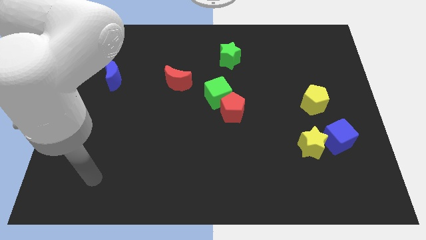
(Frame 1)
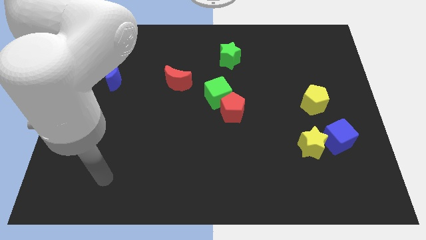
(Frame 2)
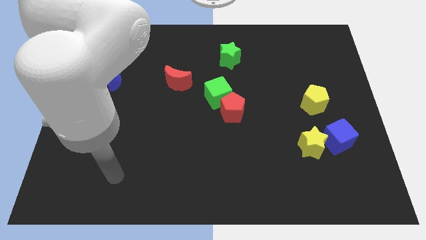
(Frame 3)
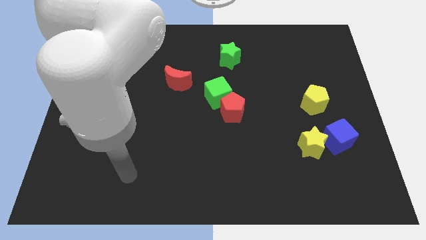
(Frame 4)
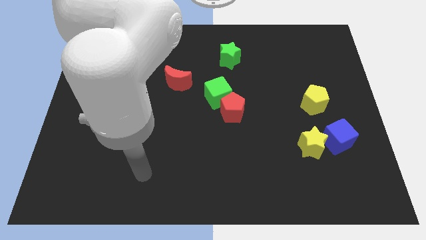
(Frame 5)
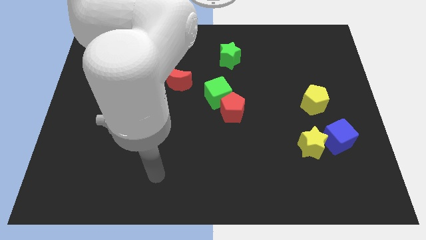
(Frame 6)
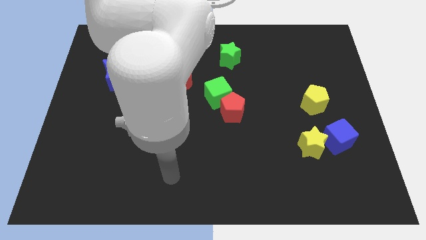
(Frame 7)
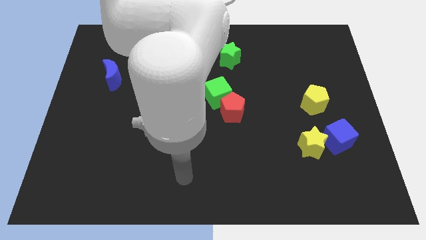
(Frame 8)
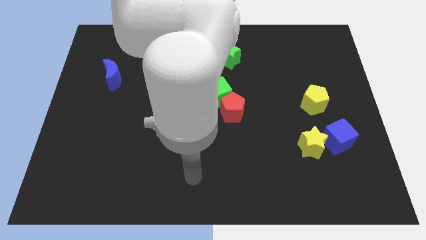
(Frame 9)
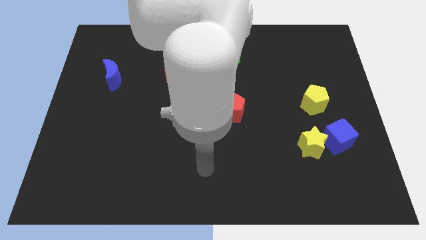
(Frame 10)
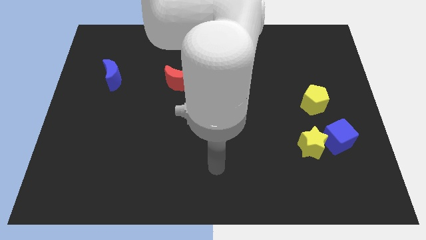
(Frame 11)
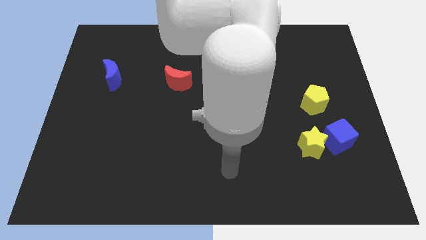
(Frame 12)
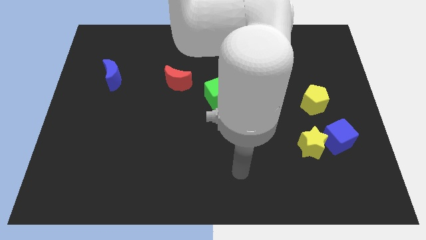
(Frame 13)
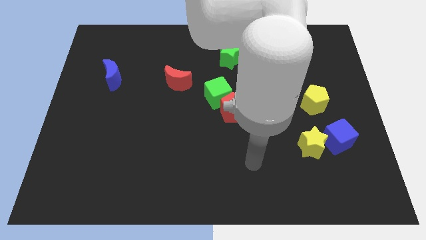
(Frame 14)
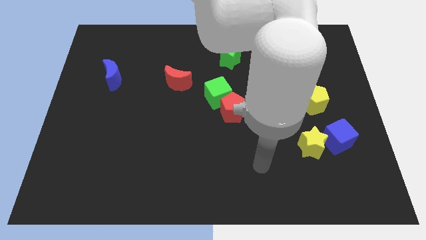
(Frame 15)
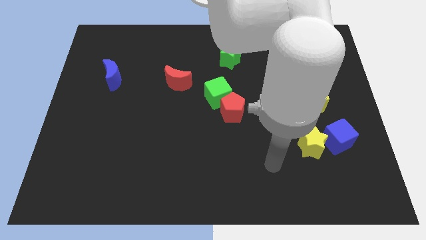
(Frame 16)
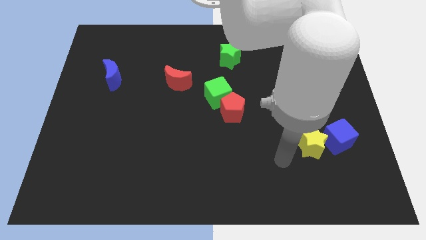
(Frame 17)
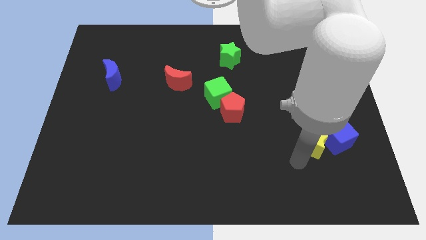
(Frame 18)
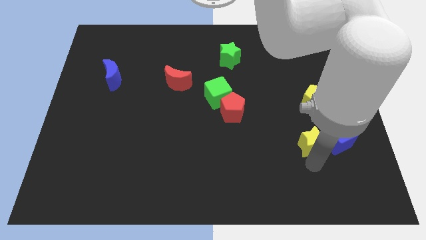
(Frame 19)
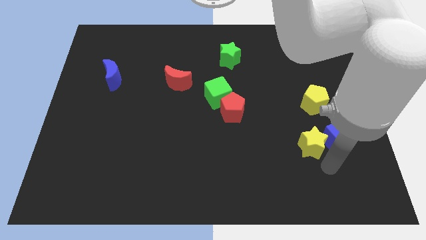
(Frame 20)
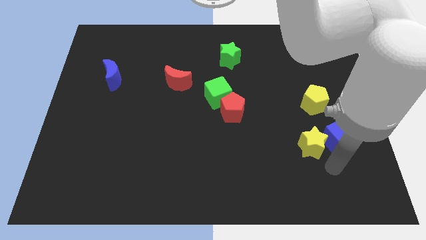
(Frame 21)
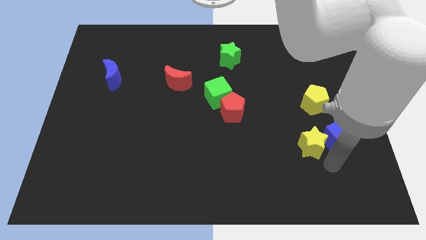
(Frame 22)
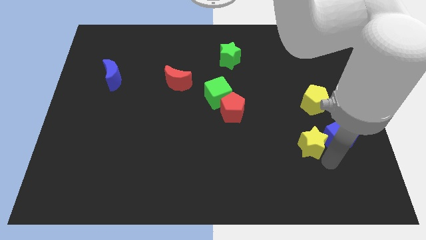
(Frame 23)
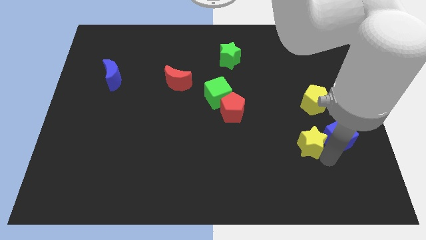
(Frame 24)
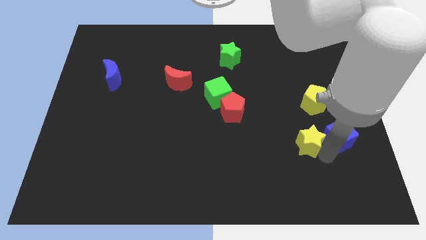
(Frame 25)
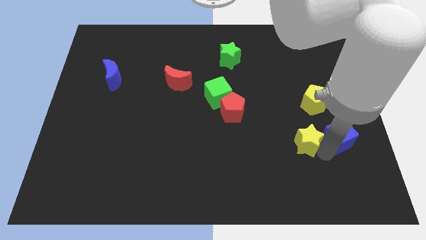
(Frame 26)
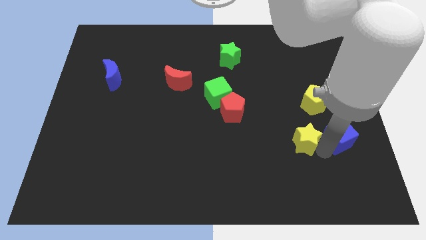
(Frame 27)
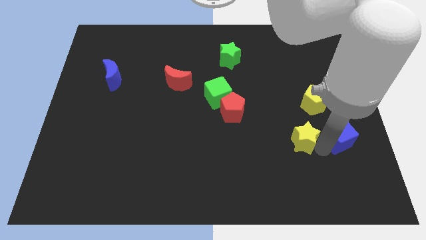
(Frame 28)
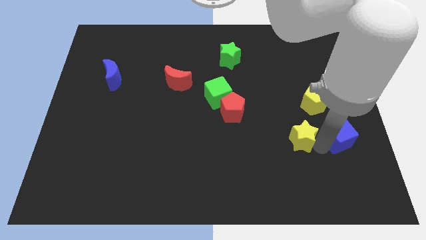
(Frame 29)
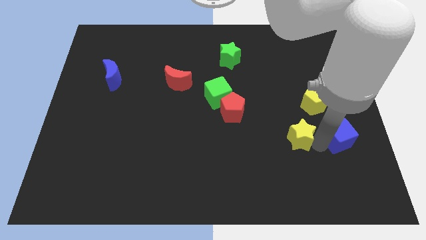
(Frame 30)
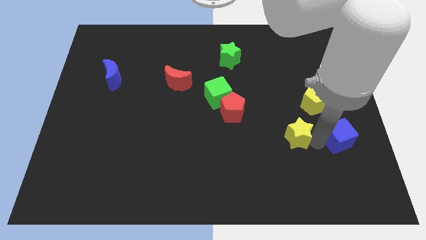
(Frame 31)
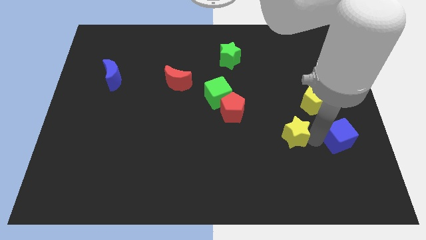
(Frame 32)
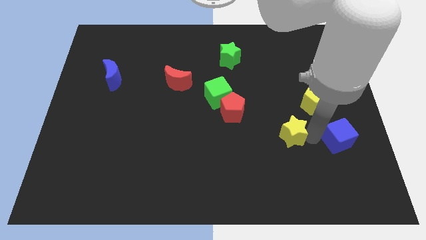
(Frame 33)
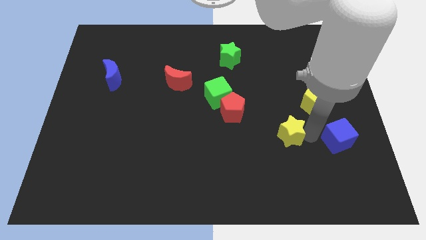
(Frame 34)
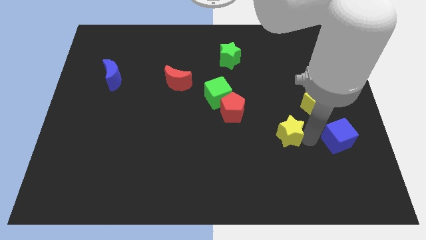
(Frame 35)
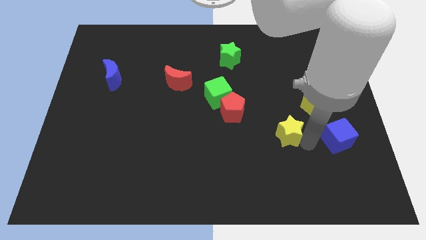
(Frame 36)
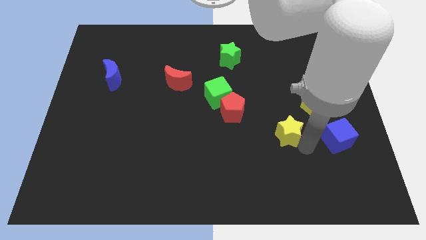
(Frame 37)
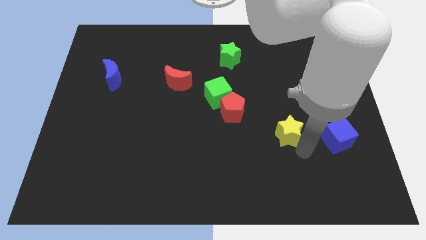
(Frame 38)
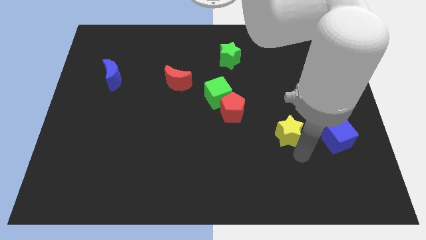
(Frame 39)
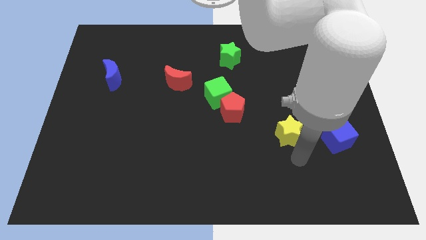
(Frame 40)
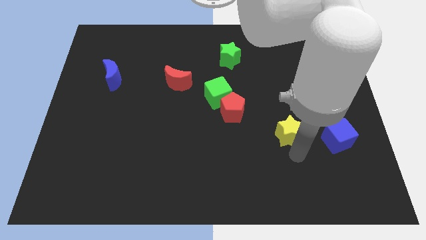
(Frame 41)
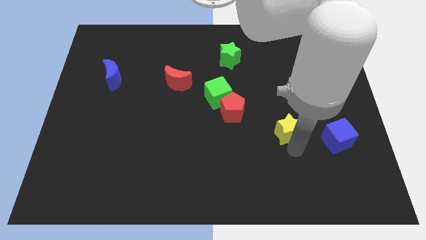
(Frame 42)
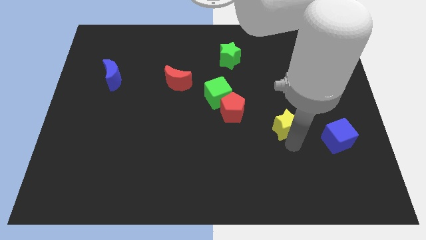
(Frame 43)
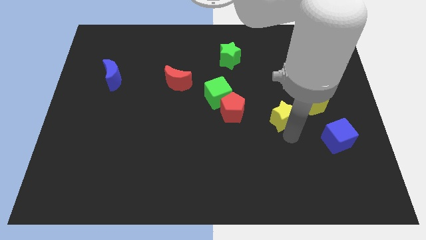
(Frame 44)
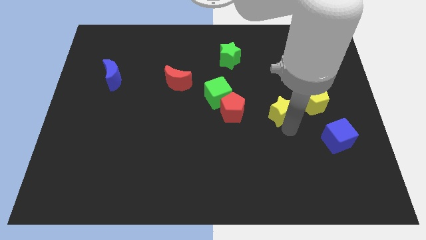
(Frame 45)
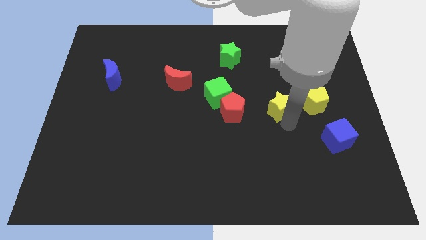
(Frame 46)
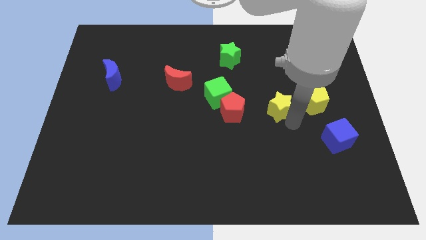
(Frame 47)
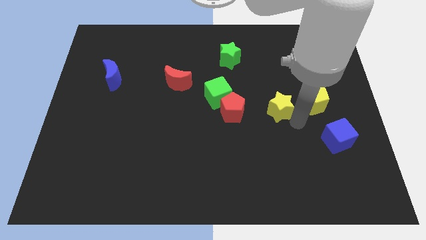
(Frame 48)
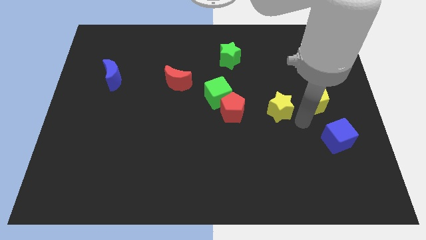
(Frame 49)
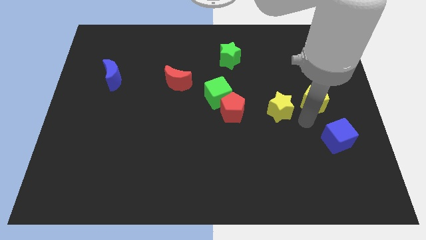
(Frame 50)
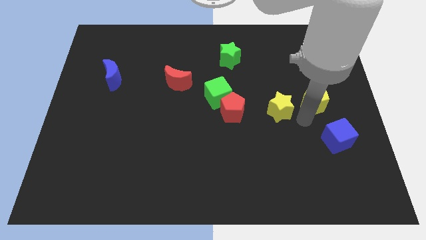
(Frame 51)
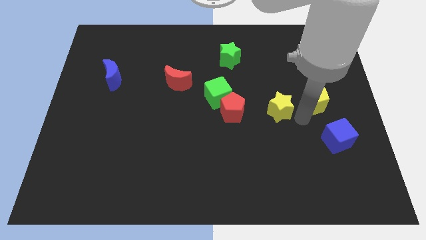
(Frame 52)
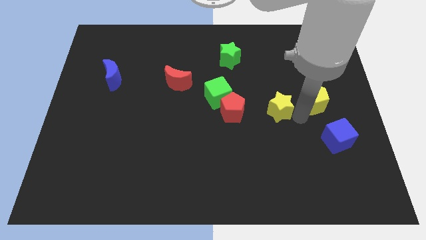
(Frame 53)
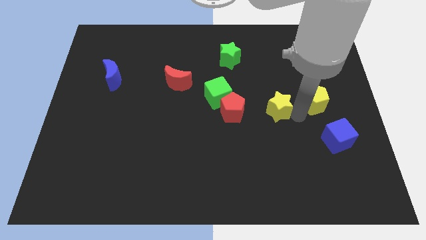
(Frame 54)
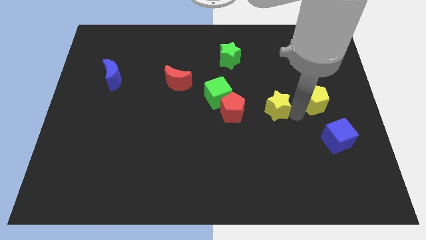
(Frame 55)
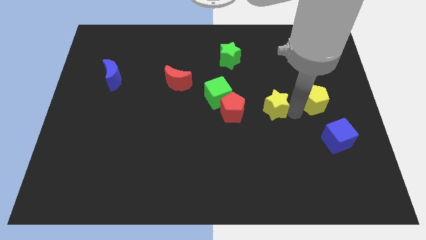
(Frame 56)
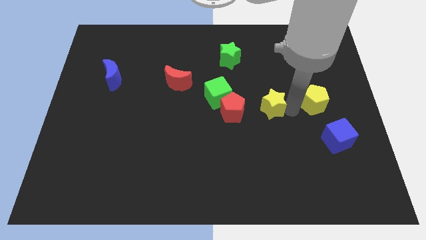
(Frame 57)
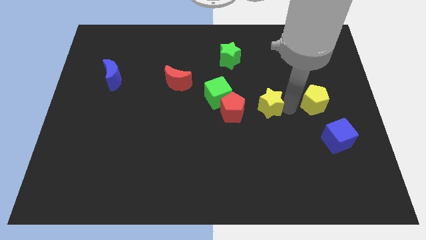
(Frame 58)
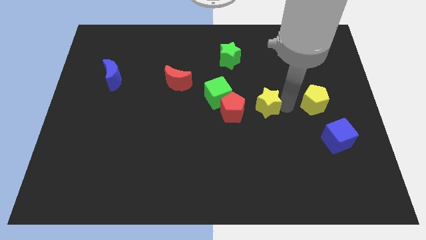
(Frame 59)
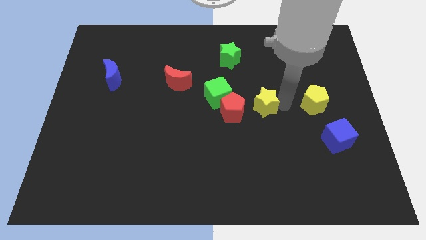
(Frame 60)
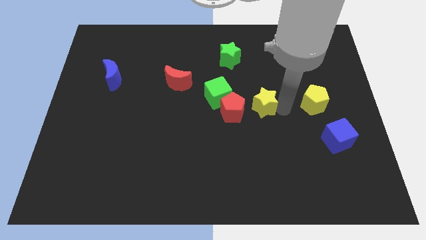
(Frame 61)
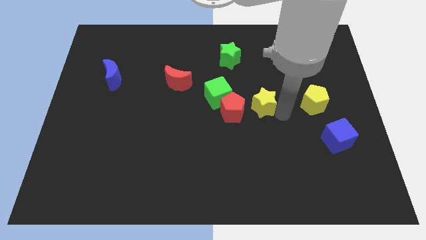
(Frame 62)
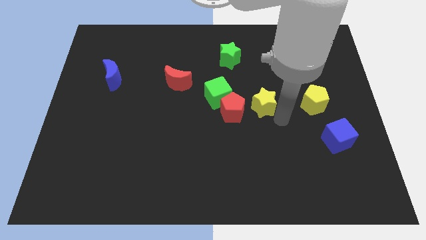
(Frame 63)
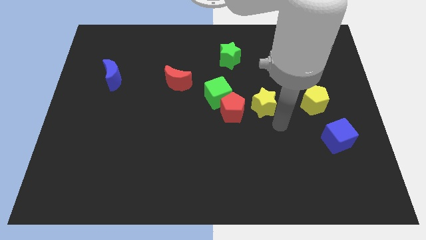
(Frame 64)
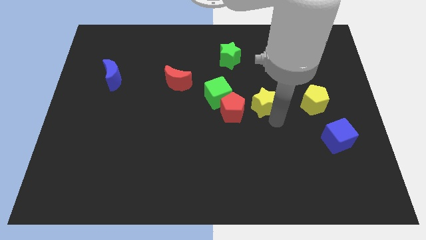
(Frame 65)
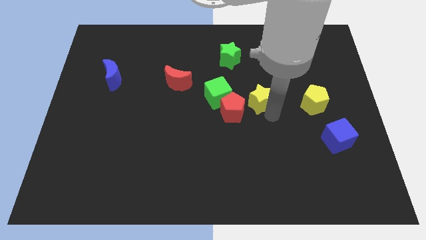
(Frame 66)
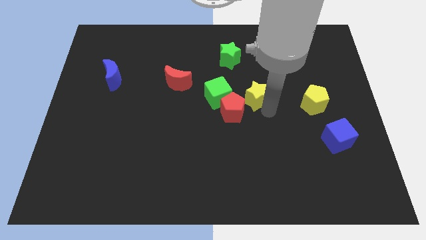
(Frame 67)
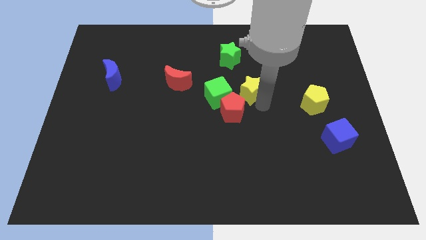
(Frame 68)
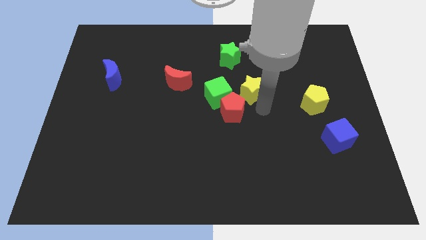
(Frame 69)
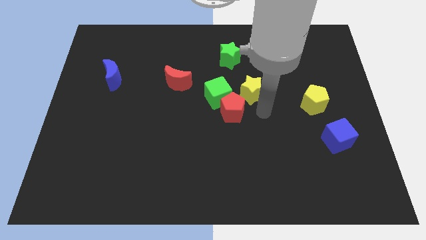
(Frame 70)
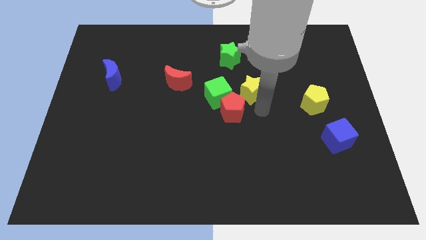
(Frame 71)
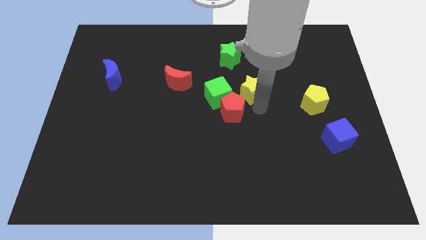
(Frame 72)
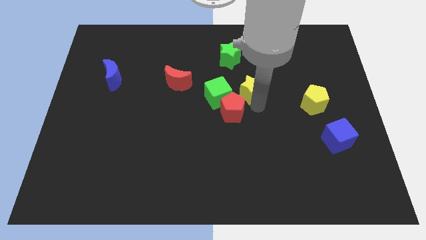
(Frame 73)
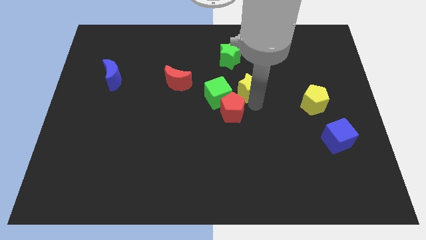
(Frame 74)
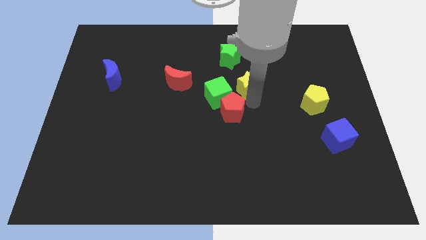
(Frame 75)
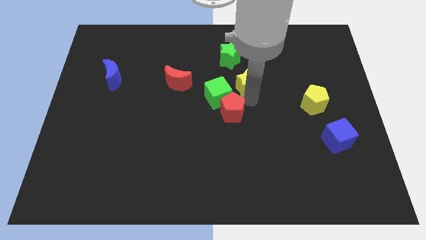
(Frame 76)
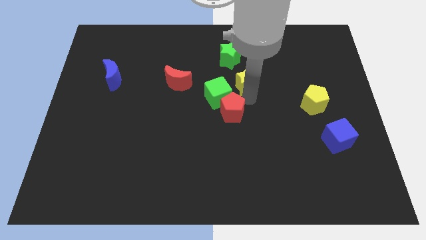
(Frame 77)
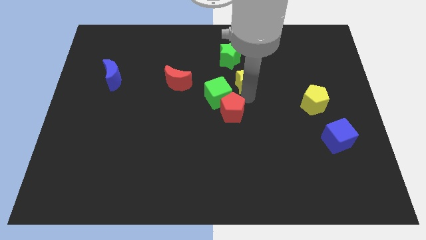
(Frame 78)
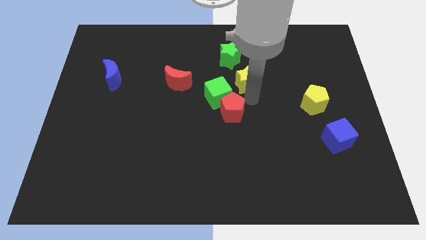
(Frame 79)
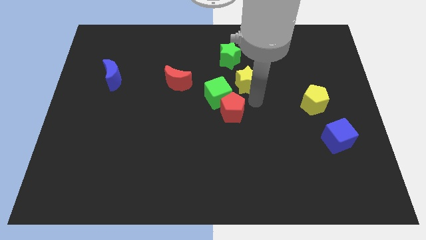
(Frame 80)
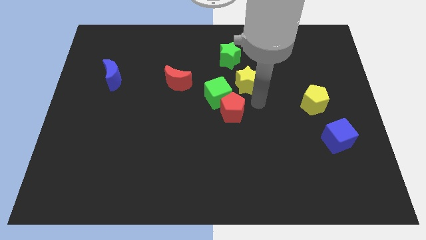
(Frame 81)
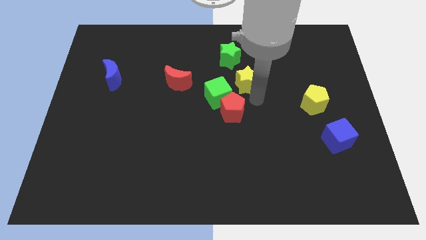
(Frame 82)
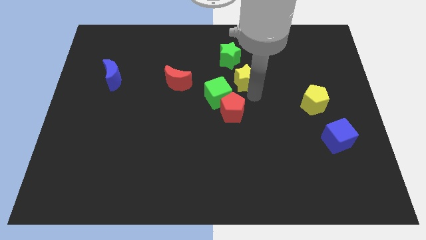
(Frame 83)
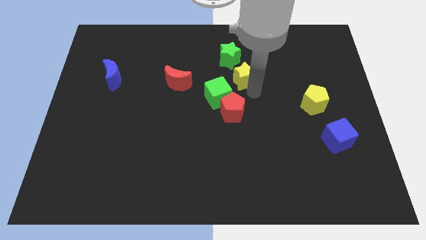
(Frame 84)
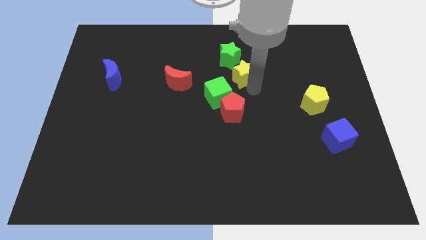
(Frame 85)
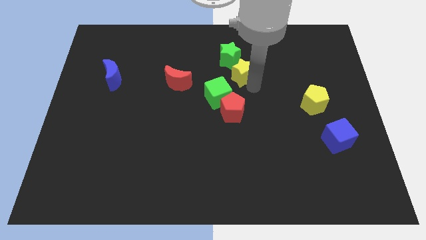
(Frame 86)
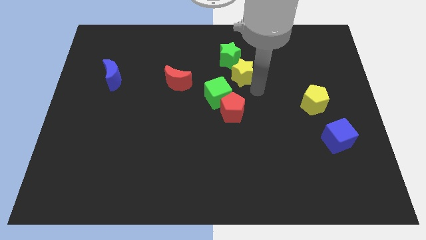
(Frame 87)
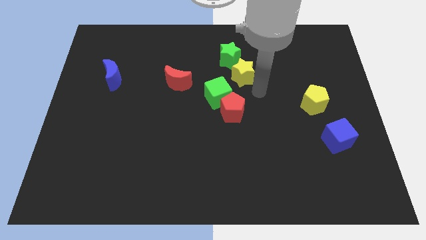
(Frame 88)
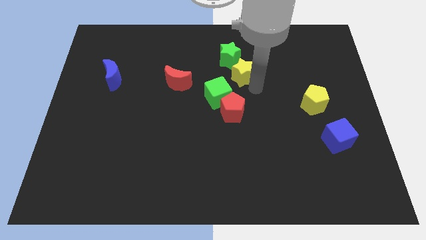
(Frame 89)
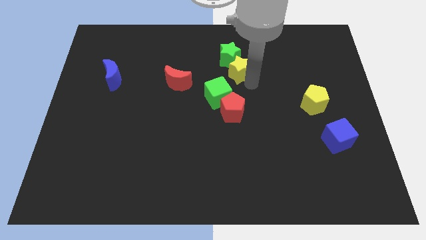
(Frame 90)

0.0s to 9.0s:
slide the yellow star next to the green star
